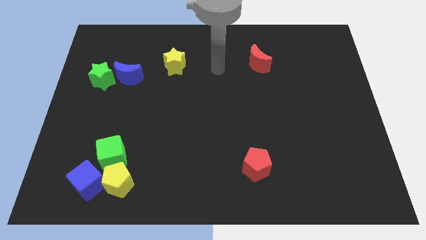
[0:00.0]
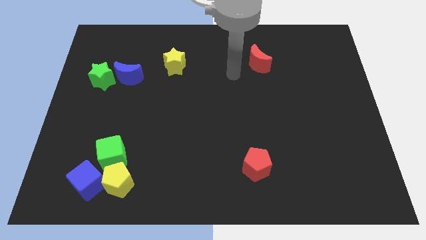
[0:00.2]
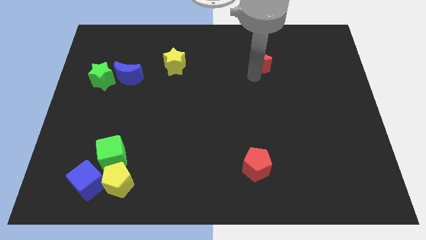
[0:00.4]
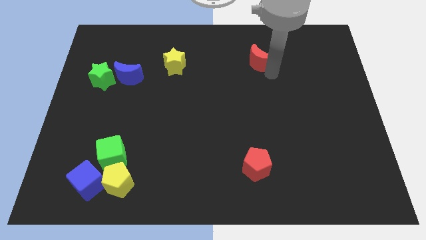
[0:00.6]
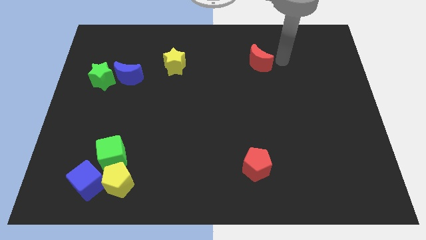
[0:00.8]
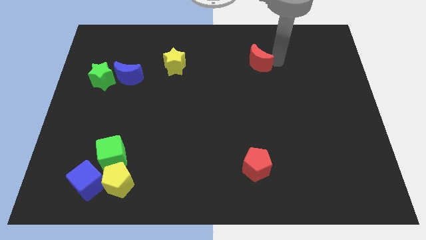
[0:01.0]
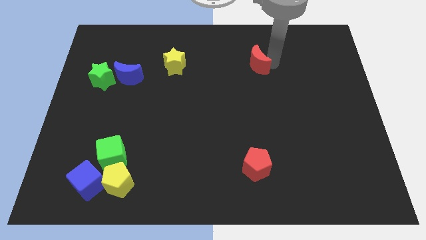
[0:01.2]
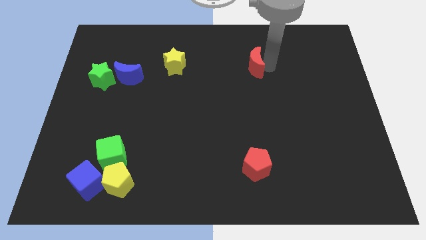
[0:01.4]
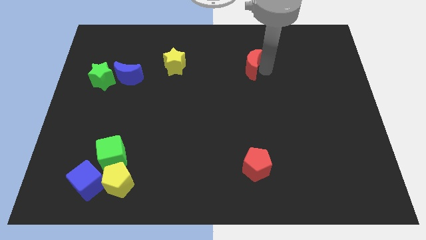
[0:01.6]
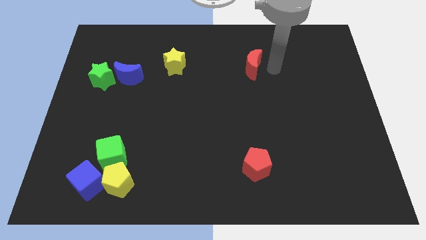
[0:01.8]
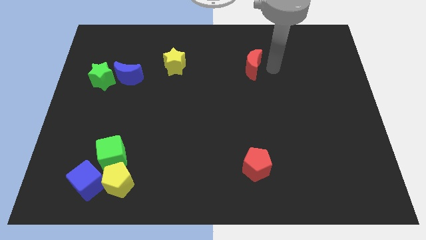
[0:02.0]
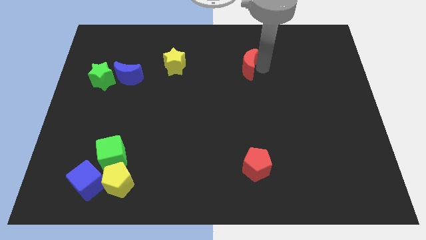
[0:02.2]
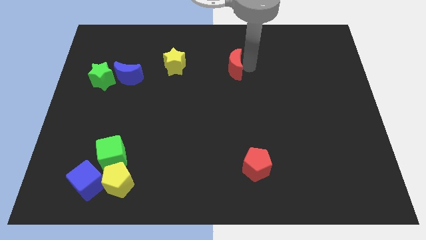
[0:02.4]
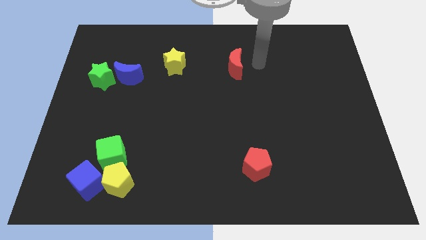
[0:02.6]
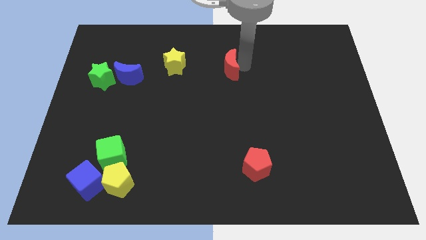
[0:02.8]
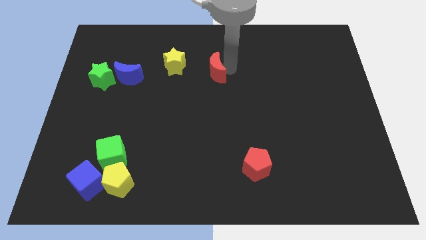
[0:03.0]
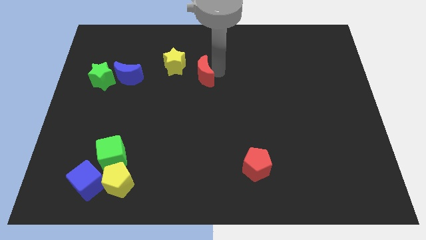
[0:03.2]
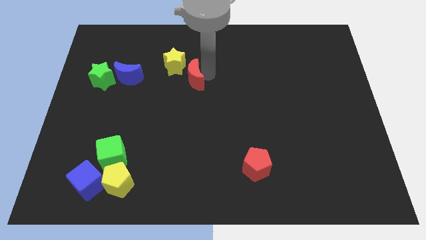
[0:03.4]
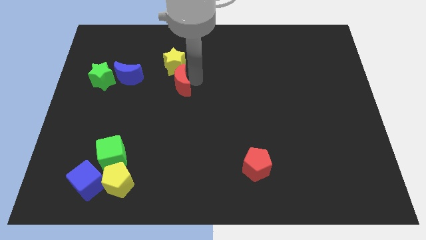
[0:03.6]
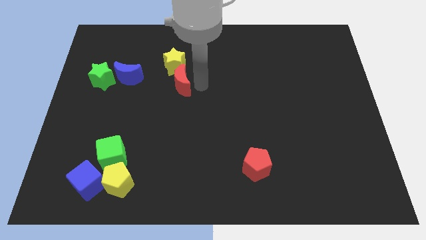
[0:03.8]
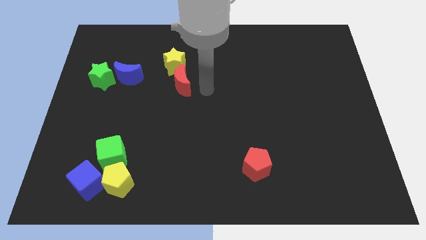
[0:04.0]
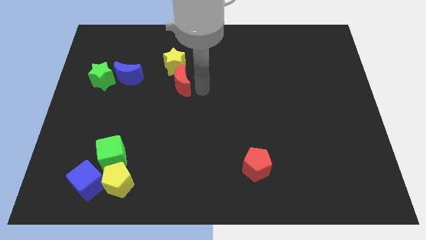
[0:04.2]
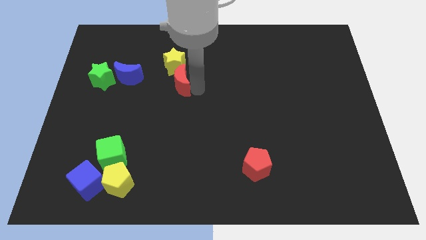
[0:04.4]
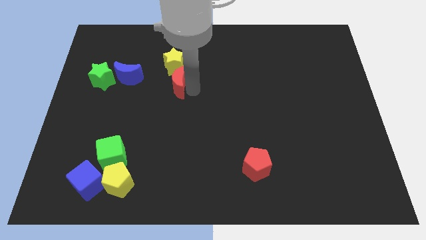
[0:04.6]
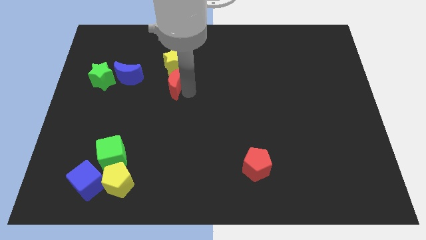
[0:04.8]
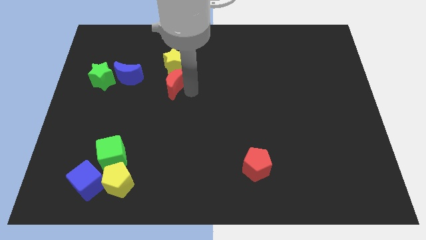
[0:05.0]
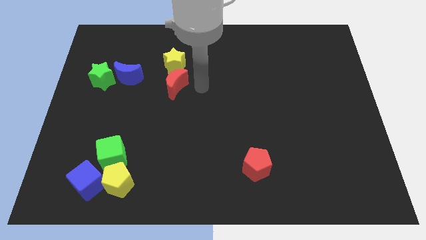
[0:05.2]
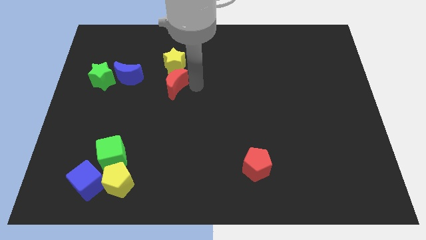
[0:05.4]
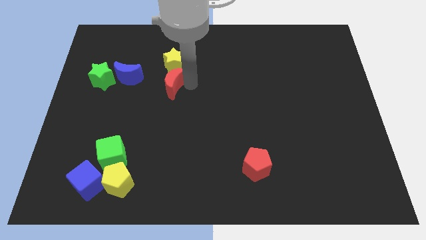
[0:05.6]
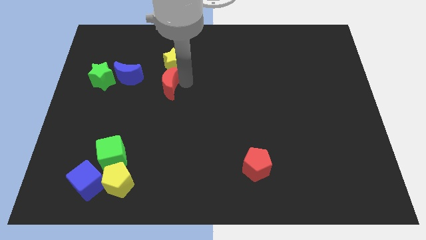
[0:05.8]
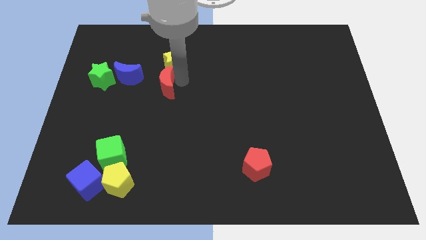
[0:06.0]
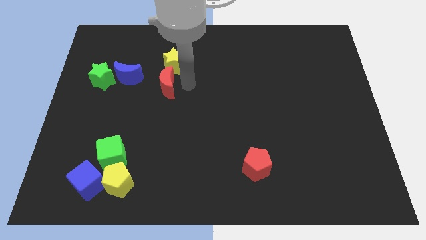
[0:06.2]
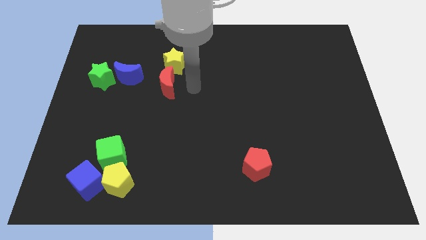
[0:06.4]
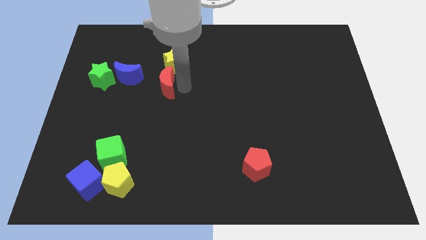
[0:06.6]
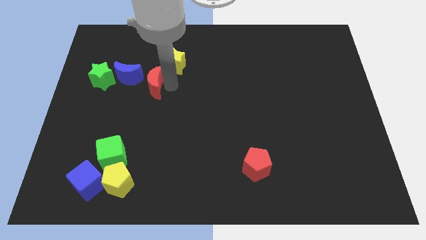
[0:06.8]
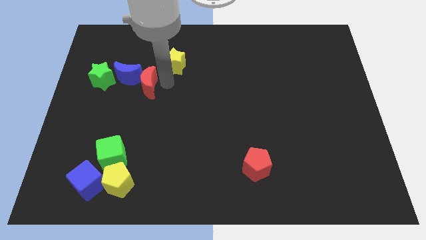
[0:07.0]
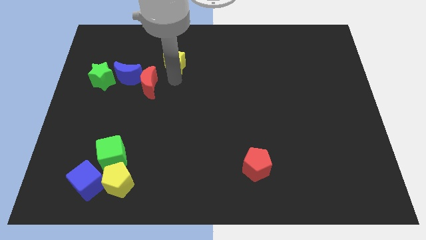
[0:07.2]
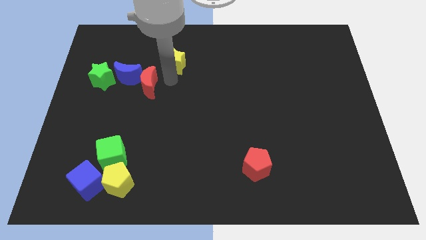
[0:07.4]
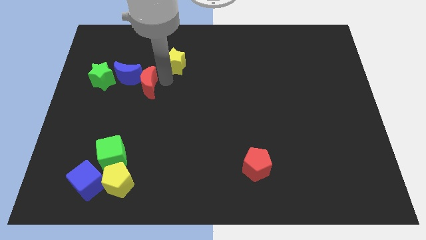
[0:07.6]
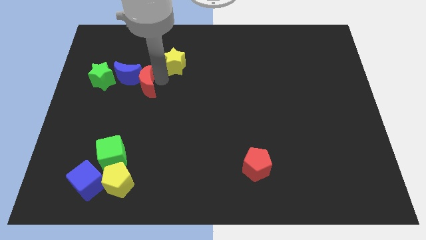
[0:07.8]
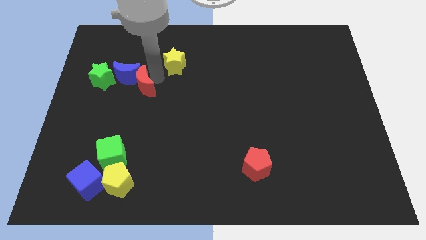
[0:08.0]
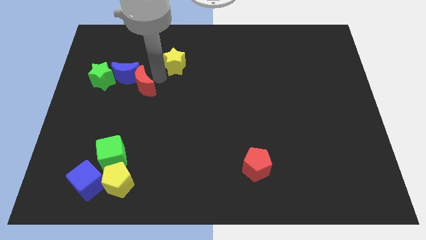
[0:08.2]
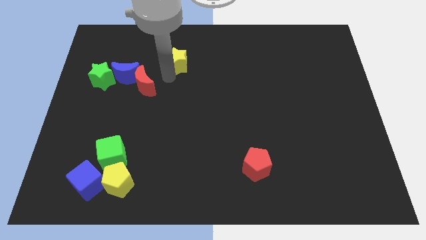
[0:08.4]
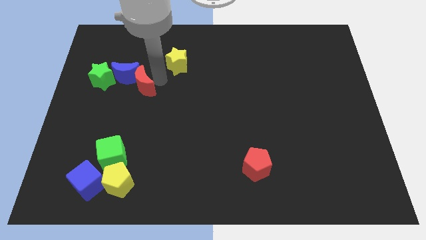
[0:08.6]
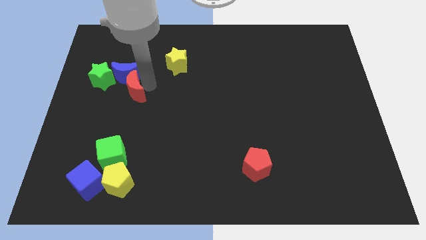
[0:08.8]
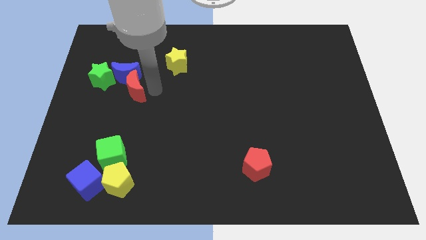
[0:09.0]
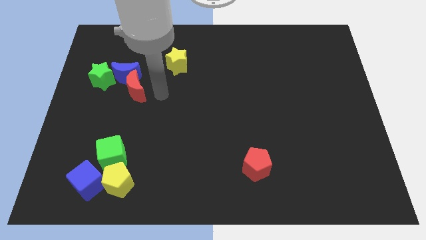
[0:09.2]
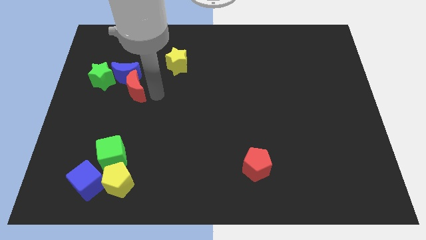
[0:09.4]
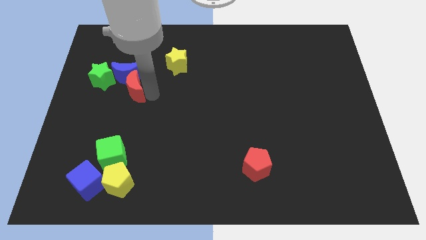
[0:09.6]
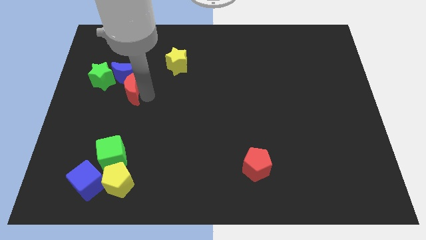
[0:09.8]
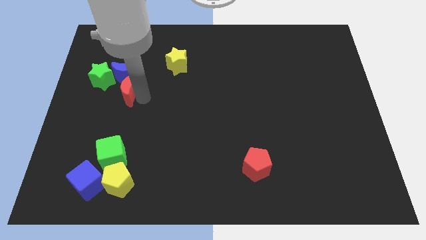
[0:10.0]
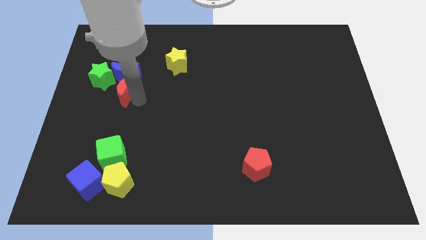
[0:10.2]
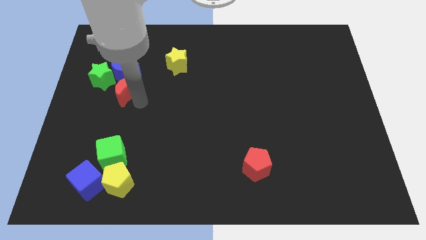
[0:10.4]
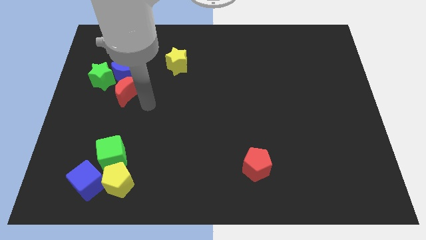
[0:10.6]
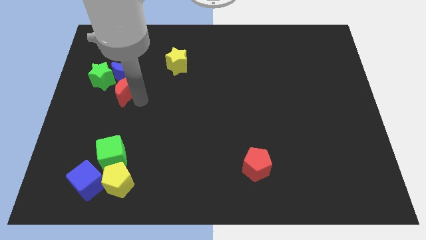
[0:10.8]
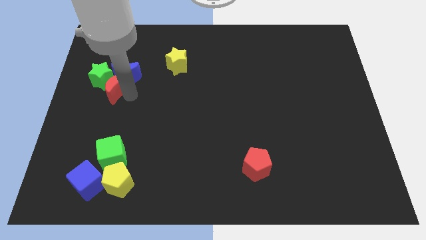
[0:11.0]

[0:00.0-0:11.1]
move the red moon to the green star

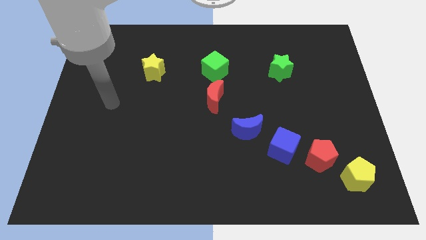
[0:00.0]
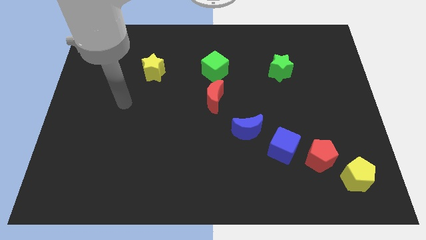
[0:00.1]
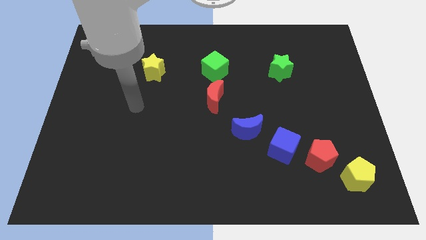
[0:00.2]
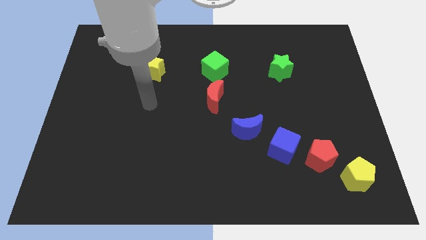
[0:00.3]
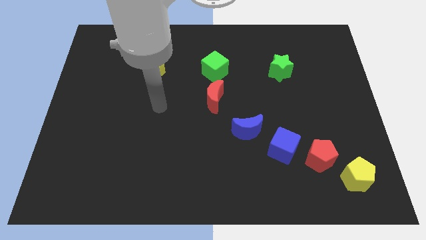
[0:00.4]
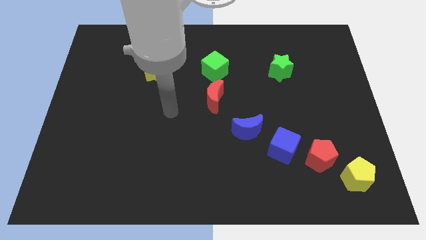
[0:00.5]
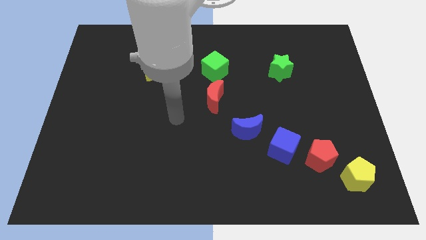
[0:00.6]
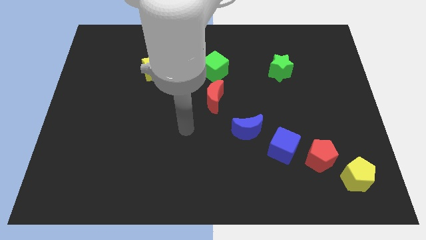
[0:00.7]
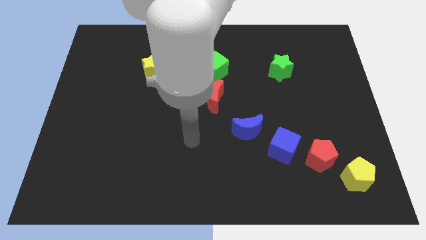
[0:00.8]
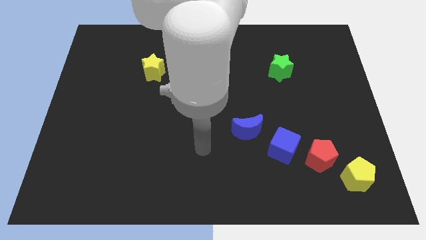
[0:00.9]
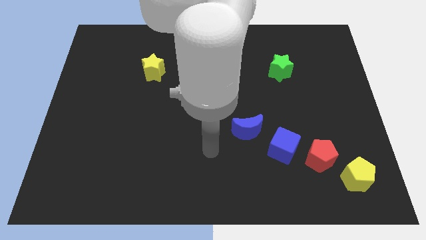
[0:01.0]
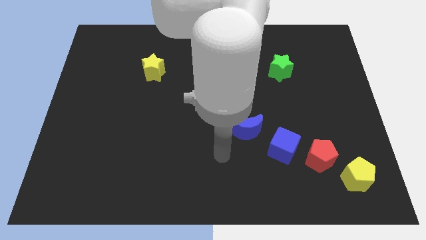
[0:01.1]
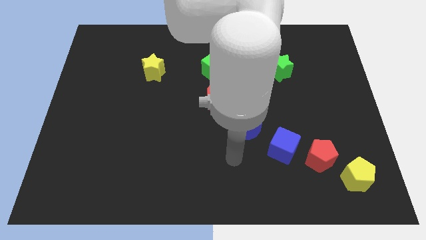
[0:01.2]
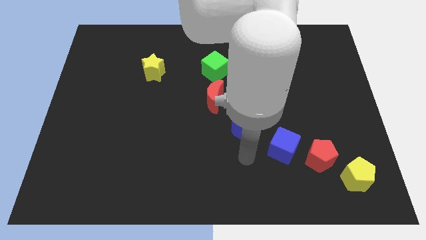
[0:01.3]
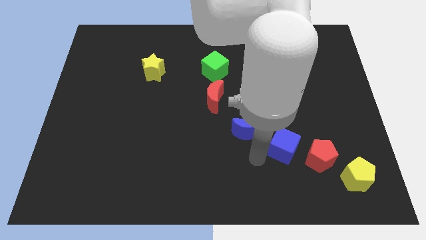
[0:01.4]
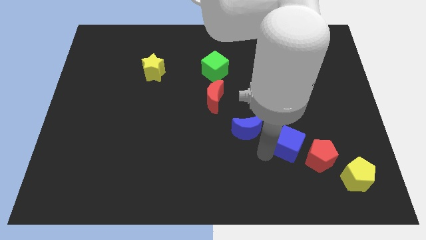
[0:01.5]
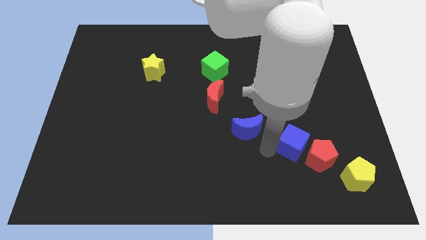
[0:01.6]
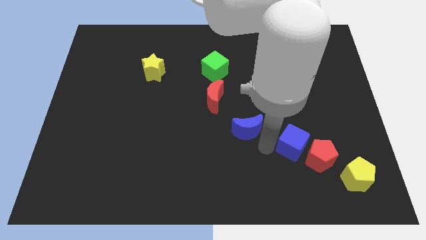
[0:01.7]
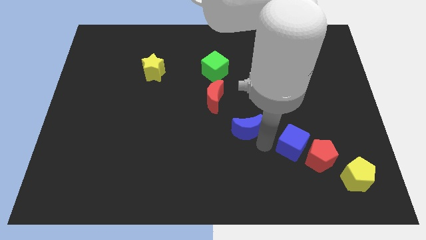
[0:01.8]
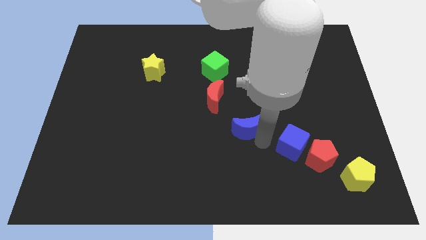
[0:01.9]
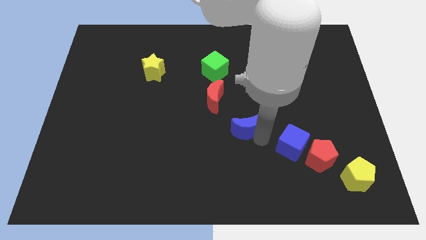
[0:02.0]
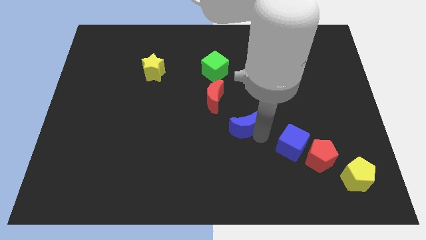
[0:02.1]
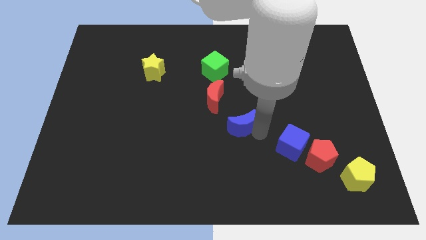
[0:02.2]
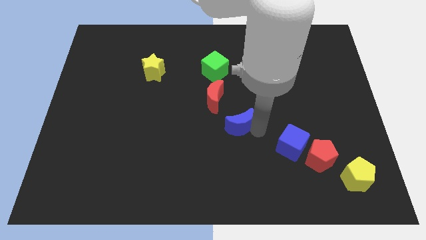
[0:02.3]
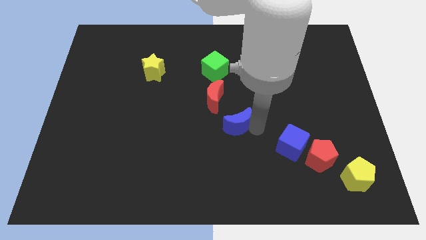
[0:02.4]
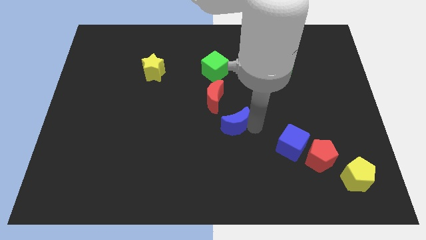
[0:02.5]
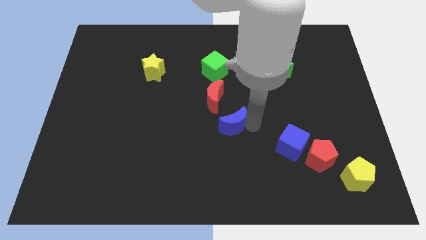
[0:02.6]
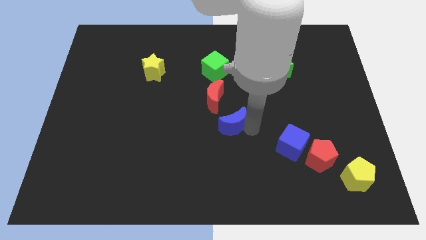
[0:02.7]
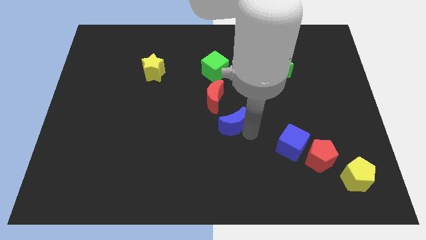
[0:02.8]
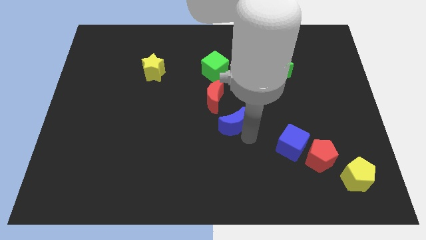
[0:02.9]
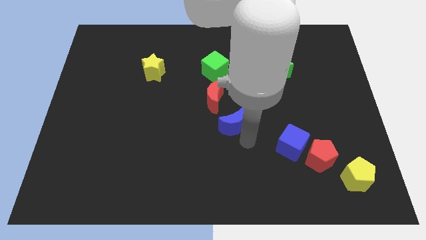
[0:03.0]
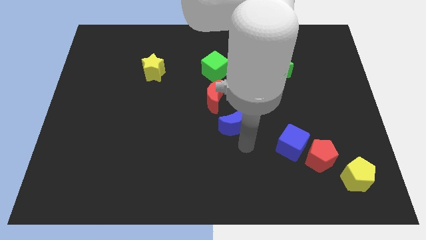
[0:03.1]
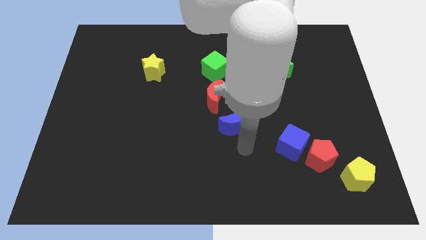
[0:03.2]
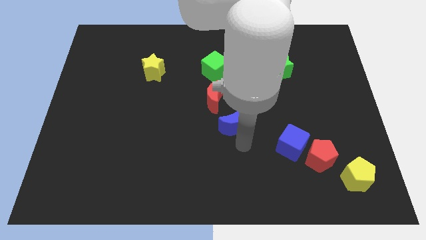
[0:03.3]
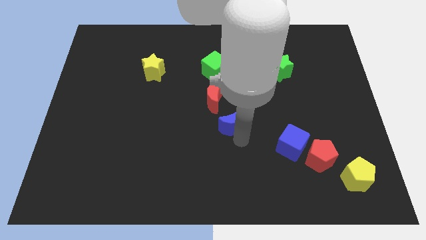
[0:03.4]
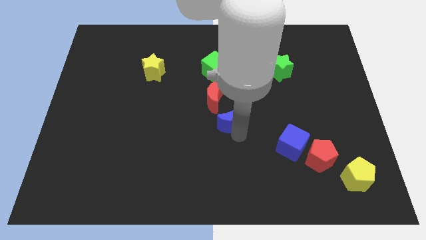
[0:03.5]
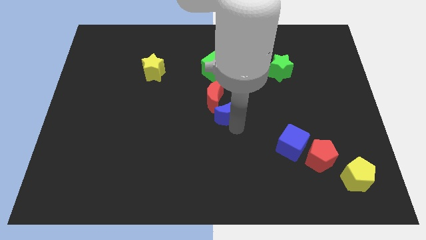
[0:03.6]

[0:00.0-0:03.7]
put the blue moon next to the red moon
